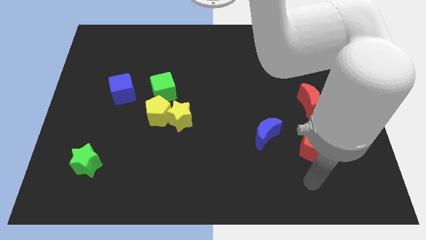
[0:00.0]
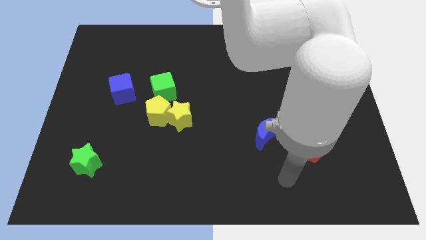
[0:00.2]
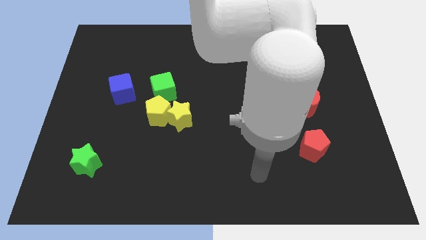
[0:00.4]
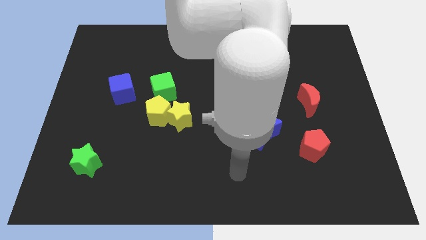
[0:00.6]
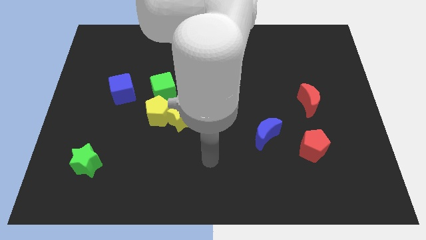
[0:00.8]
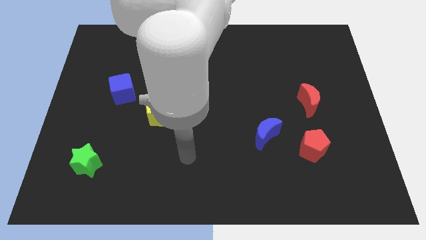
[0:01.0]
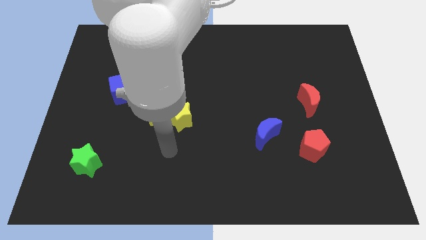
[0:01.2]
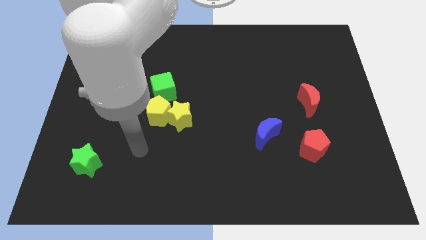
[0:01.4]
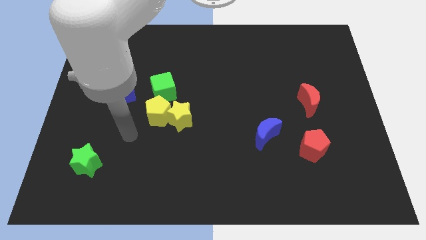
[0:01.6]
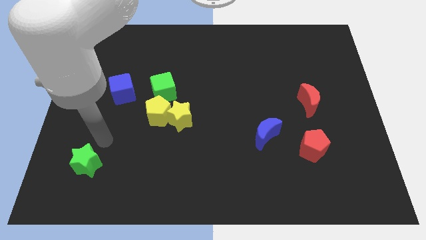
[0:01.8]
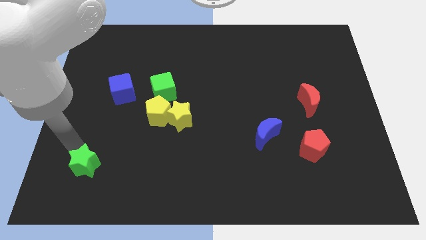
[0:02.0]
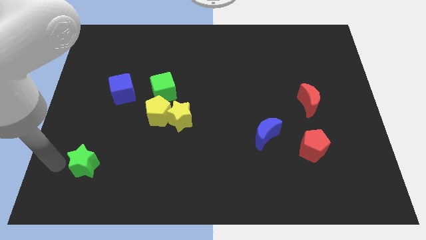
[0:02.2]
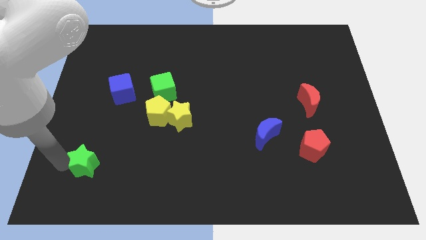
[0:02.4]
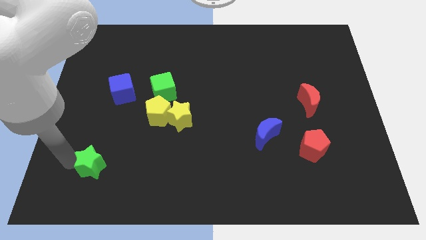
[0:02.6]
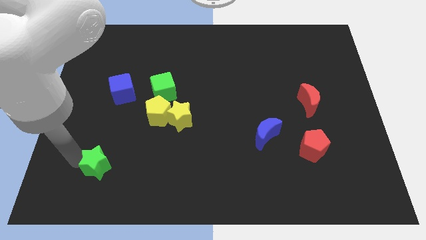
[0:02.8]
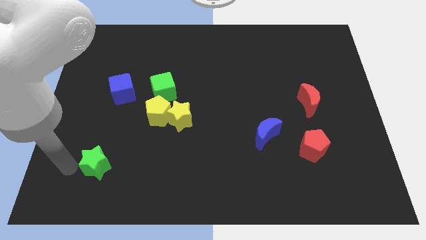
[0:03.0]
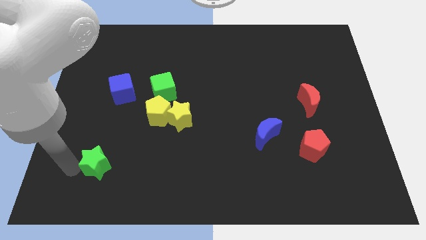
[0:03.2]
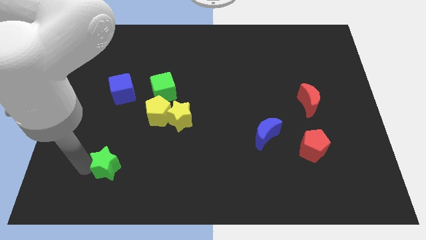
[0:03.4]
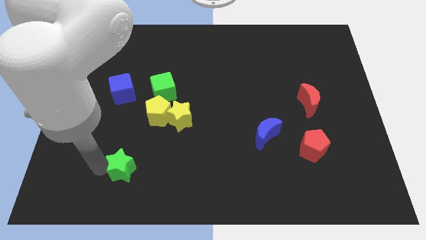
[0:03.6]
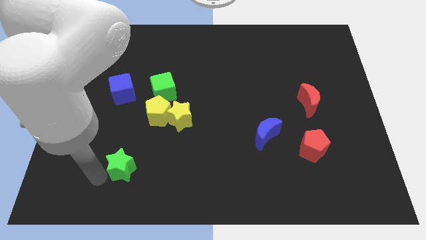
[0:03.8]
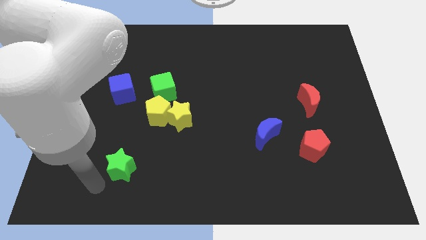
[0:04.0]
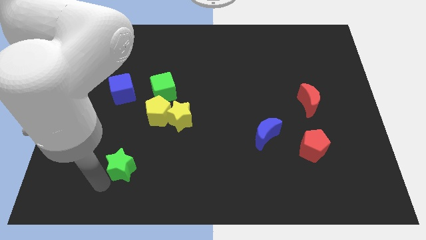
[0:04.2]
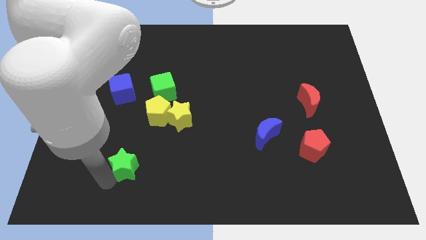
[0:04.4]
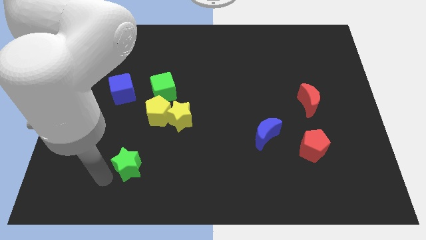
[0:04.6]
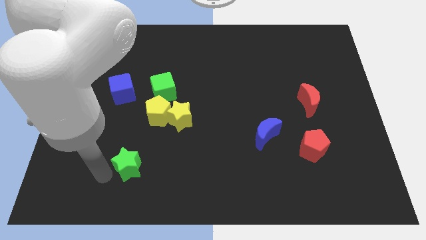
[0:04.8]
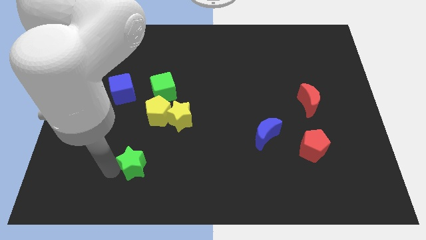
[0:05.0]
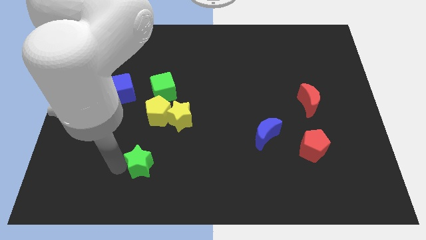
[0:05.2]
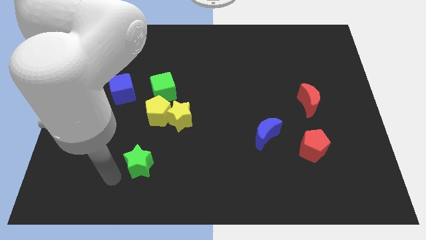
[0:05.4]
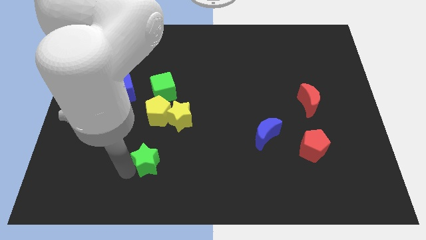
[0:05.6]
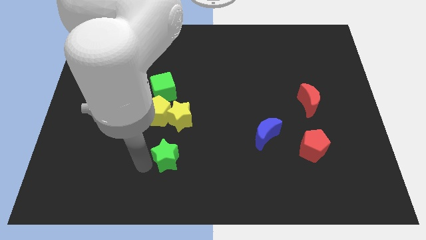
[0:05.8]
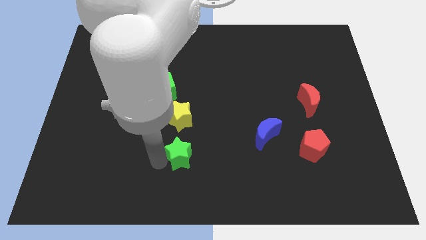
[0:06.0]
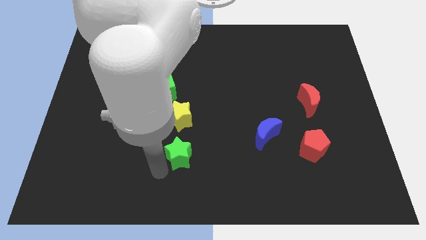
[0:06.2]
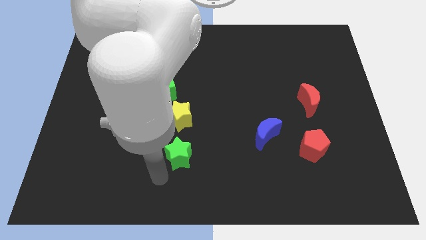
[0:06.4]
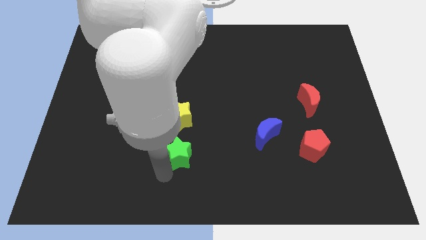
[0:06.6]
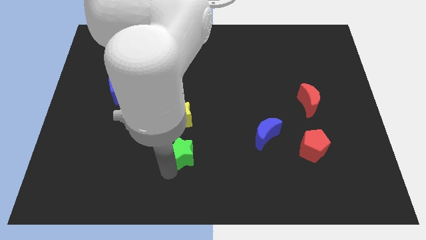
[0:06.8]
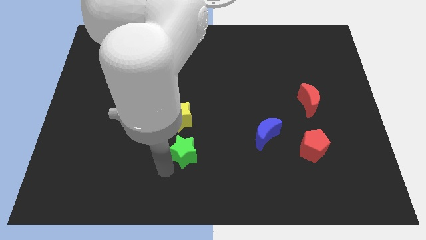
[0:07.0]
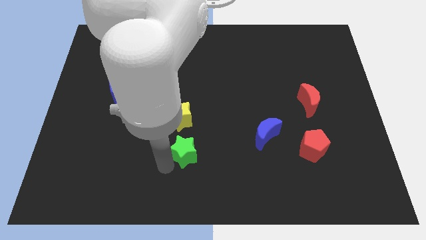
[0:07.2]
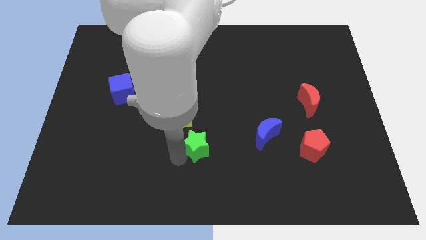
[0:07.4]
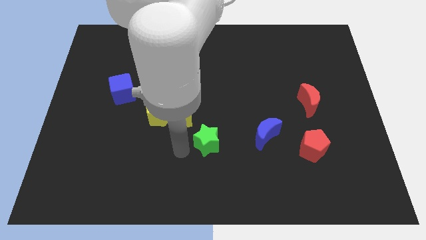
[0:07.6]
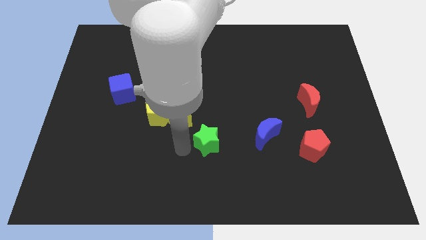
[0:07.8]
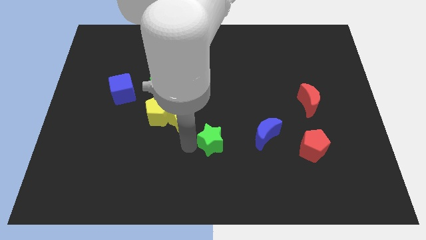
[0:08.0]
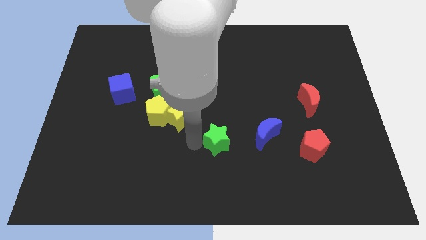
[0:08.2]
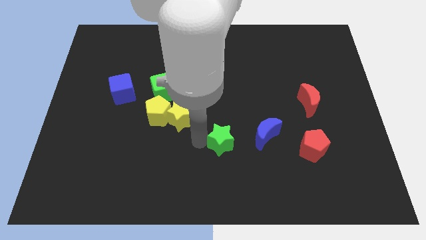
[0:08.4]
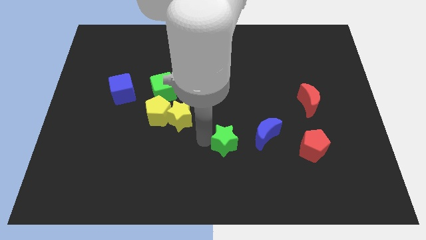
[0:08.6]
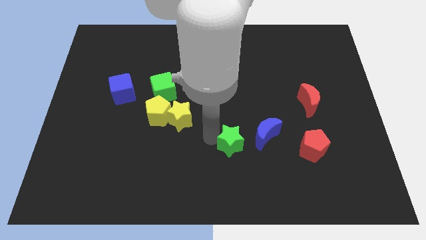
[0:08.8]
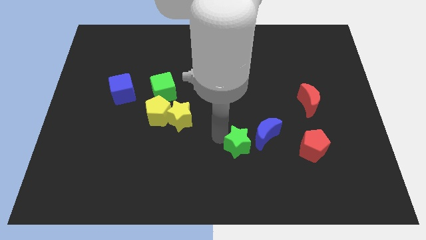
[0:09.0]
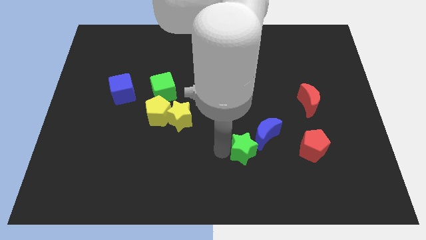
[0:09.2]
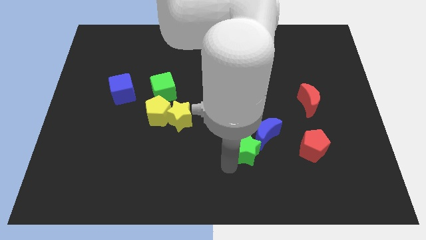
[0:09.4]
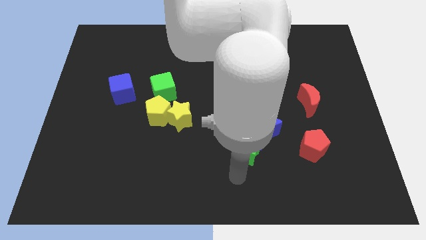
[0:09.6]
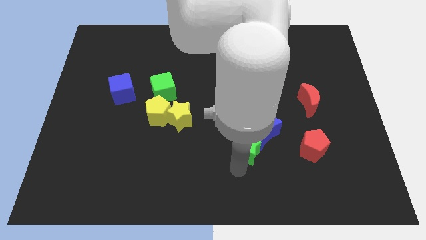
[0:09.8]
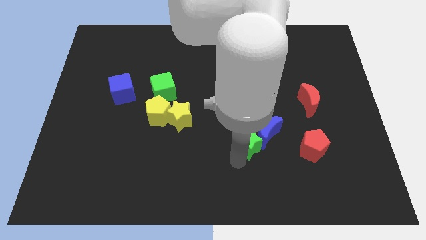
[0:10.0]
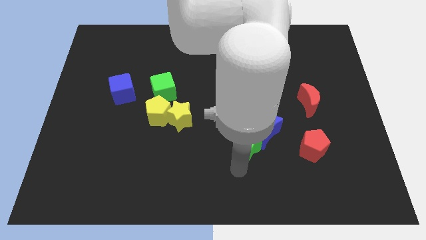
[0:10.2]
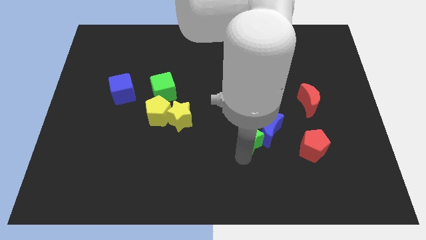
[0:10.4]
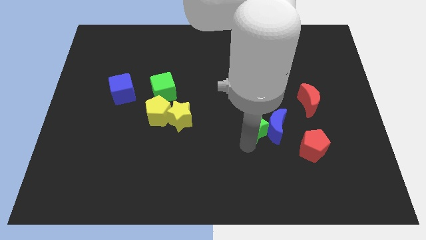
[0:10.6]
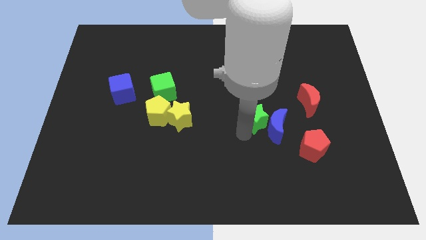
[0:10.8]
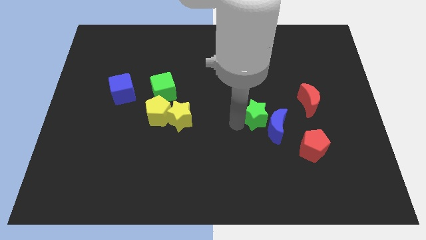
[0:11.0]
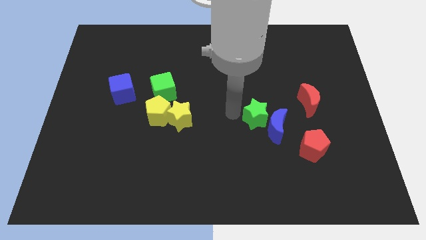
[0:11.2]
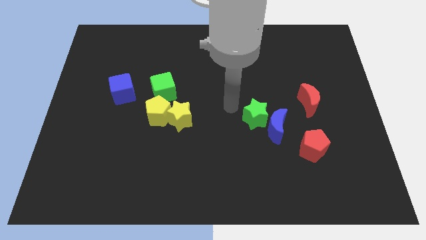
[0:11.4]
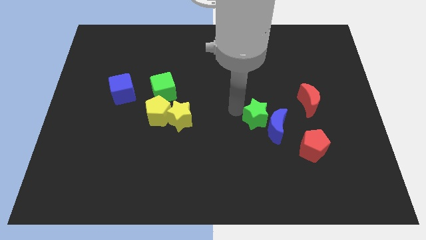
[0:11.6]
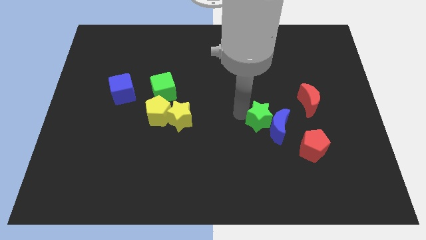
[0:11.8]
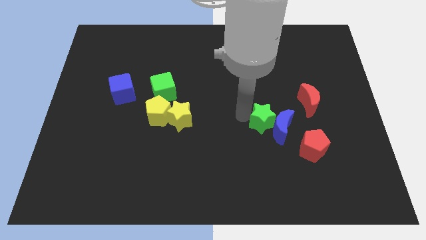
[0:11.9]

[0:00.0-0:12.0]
put the green star diagonally up and to the left of the red pentagon

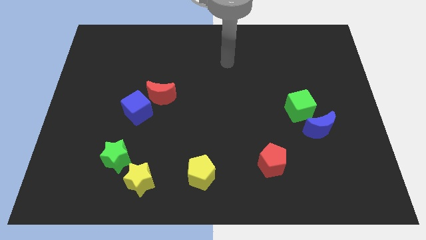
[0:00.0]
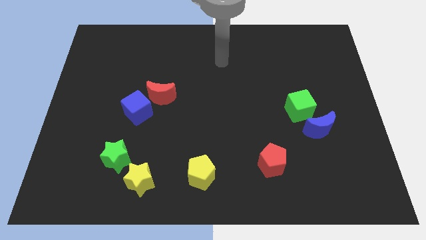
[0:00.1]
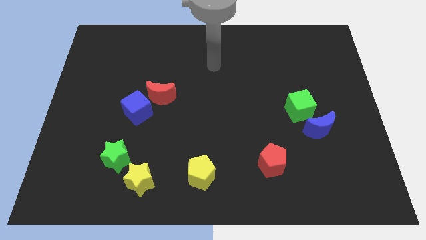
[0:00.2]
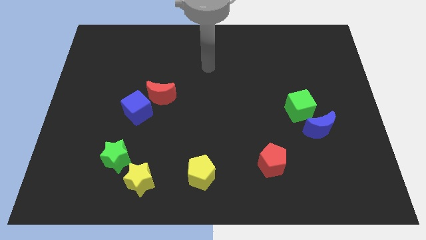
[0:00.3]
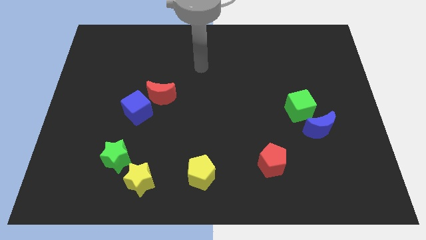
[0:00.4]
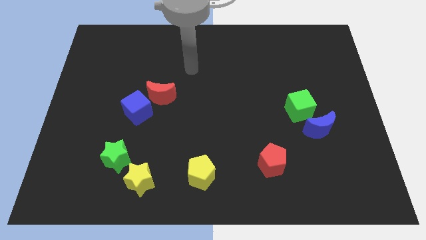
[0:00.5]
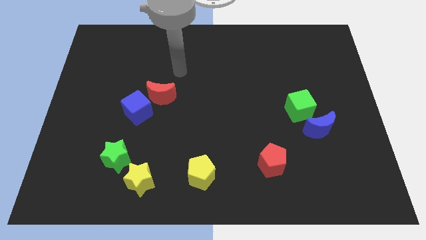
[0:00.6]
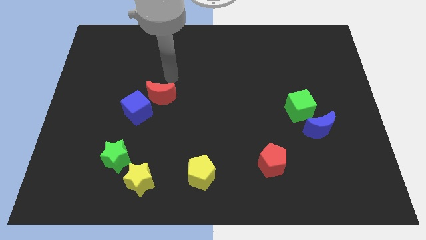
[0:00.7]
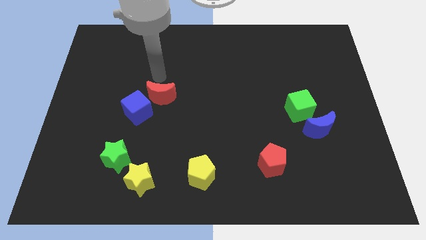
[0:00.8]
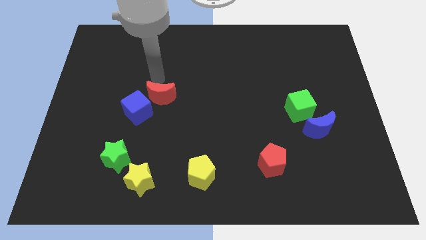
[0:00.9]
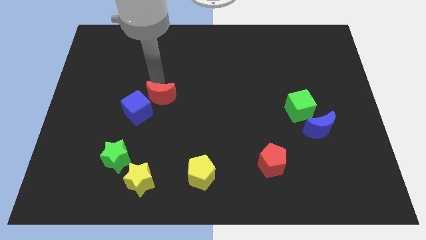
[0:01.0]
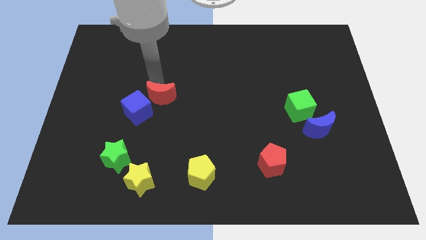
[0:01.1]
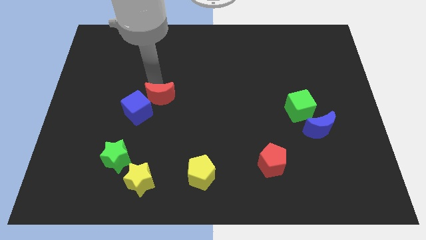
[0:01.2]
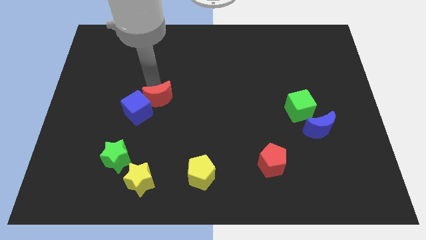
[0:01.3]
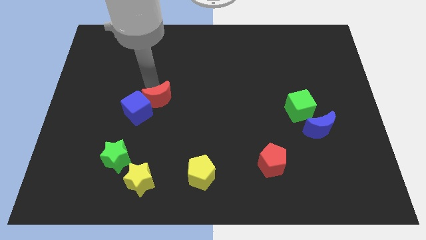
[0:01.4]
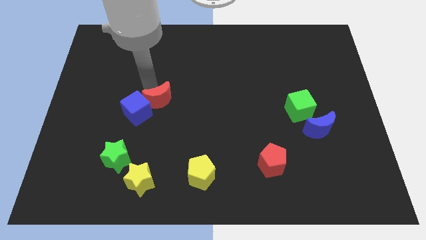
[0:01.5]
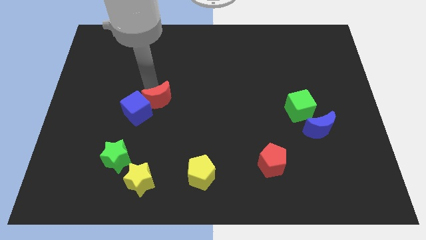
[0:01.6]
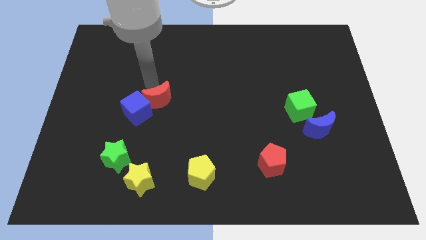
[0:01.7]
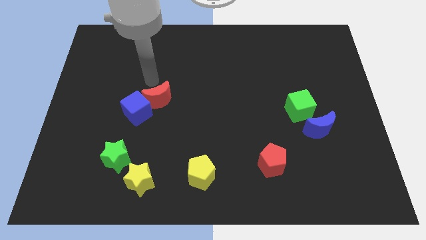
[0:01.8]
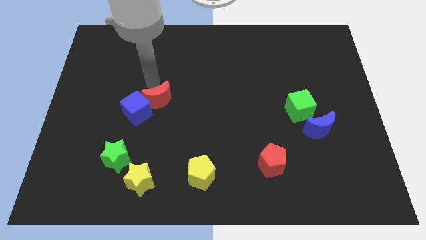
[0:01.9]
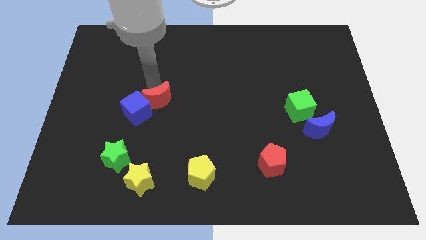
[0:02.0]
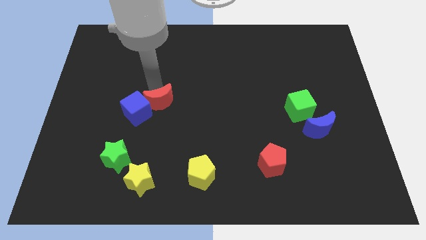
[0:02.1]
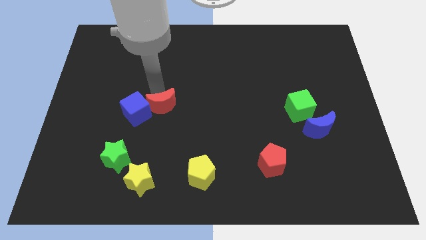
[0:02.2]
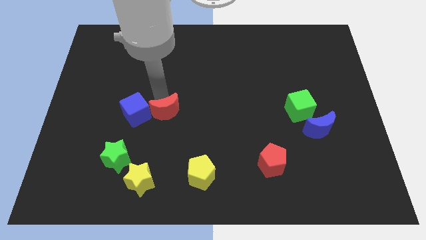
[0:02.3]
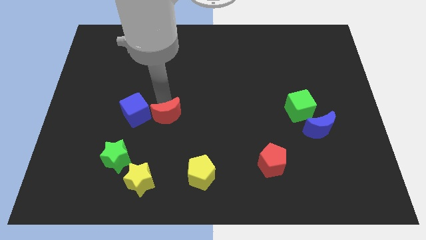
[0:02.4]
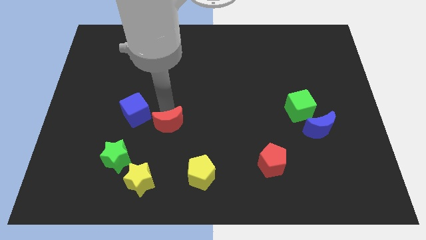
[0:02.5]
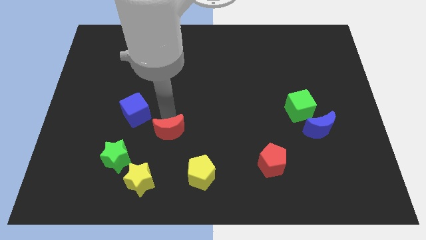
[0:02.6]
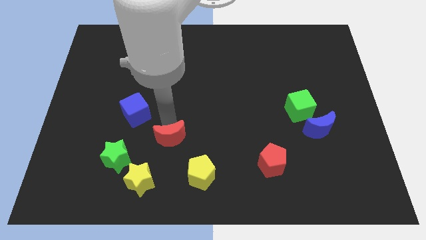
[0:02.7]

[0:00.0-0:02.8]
push the red moon to the top left side of the yellow pentagon
